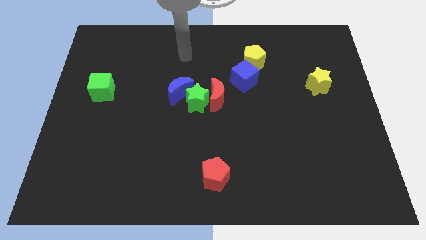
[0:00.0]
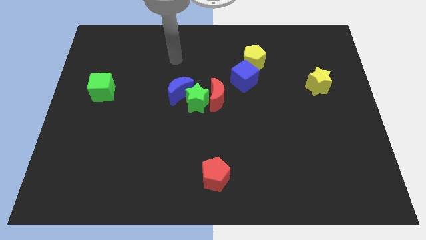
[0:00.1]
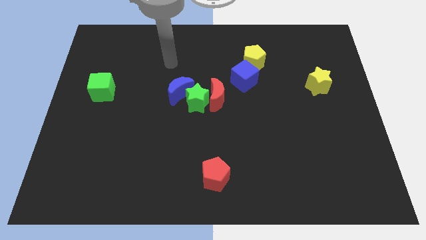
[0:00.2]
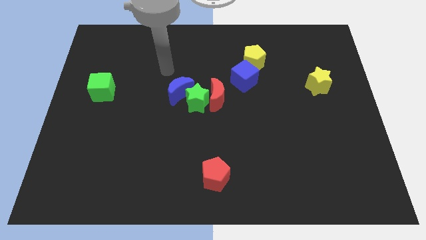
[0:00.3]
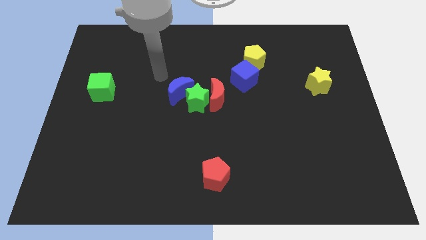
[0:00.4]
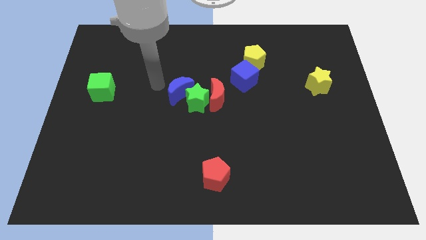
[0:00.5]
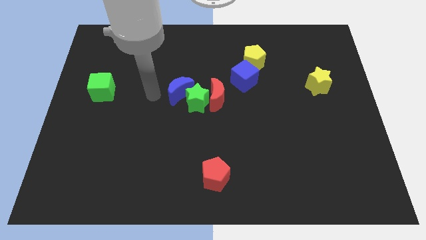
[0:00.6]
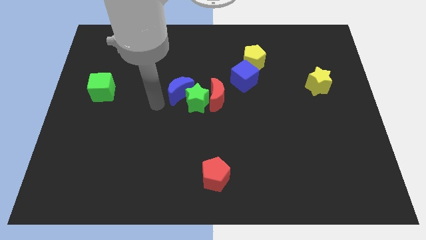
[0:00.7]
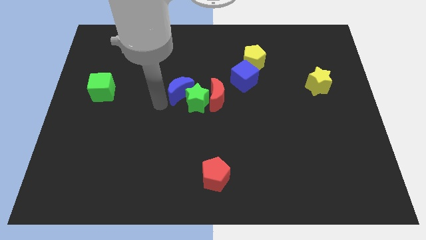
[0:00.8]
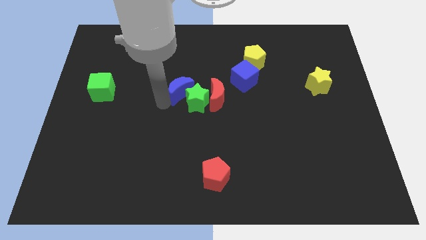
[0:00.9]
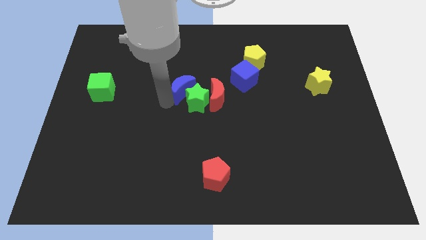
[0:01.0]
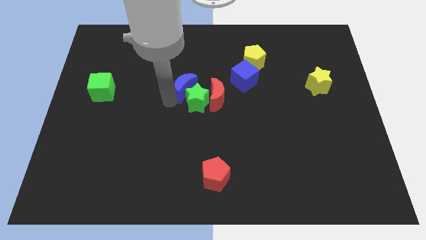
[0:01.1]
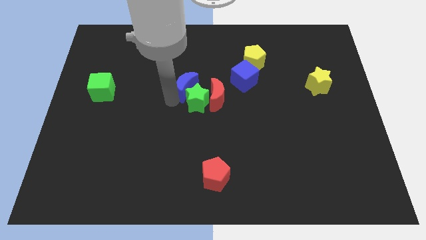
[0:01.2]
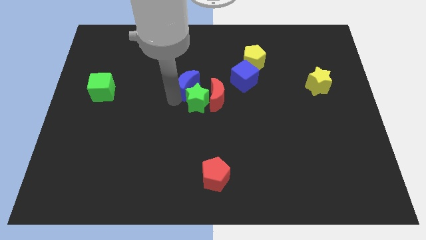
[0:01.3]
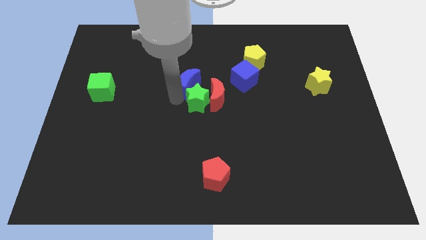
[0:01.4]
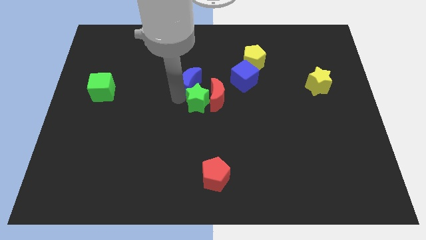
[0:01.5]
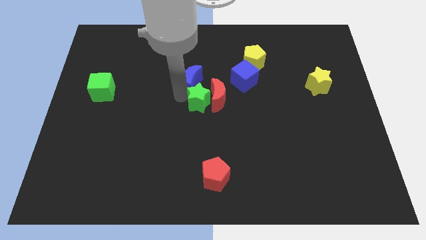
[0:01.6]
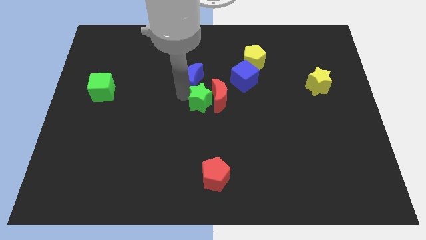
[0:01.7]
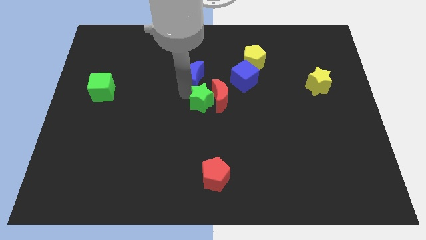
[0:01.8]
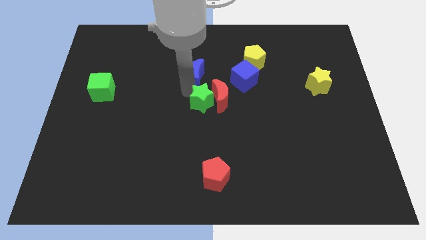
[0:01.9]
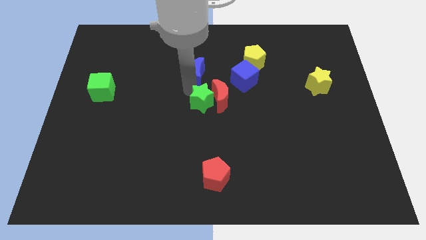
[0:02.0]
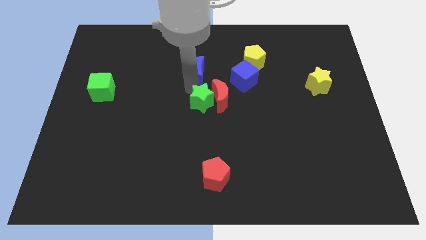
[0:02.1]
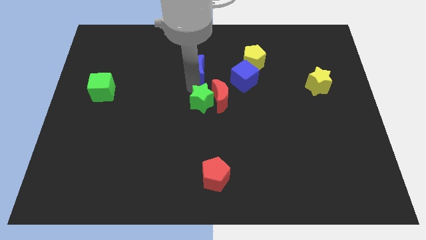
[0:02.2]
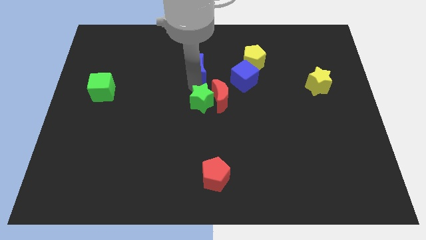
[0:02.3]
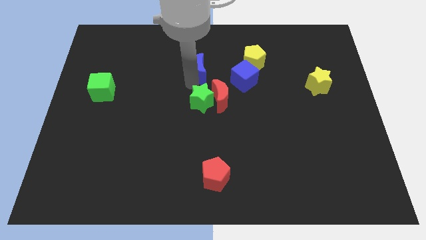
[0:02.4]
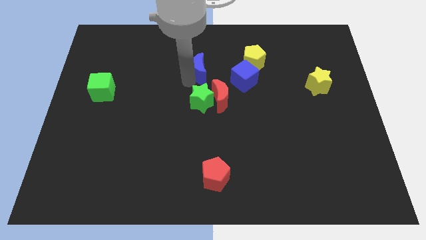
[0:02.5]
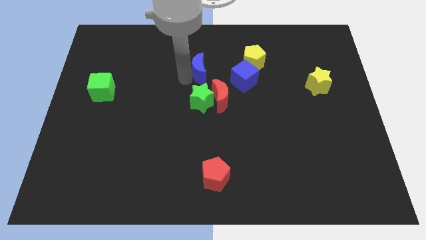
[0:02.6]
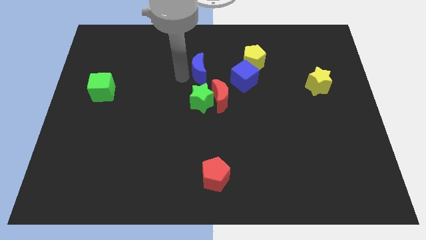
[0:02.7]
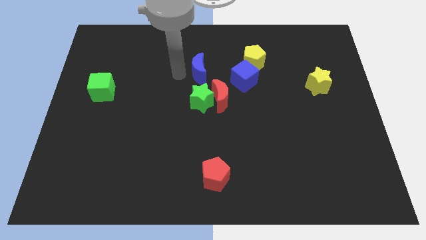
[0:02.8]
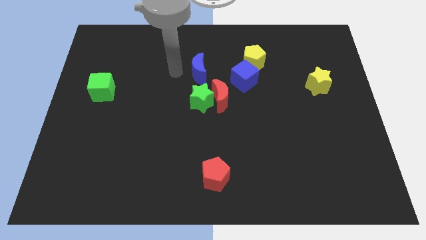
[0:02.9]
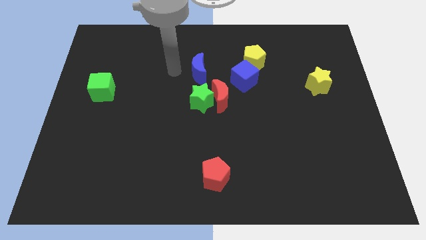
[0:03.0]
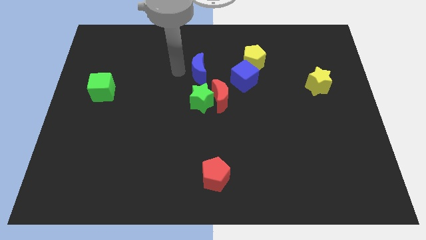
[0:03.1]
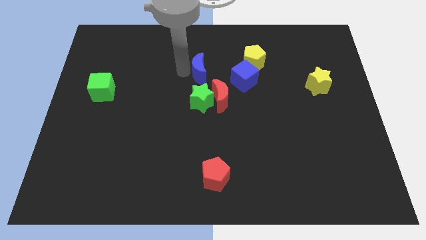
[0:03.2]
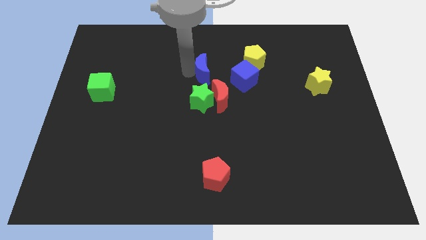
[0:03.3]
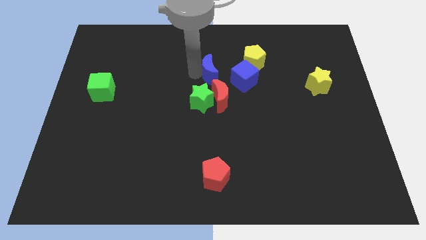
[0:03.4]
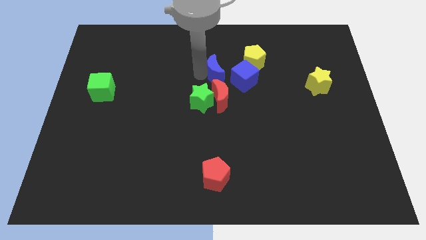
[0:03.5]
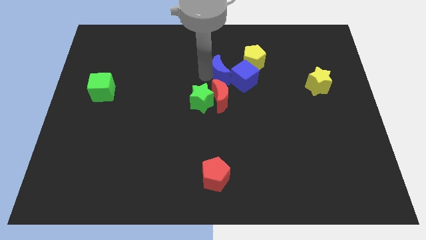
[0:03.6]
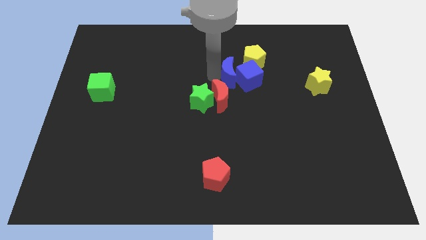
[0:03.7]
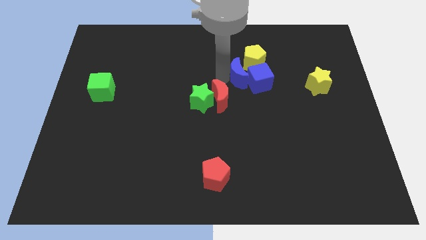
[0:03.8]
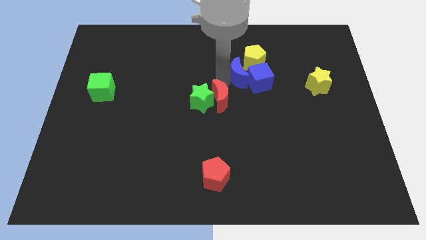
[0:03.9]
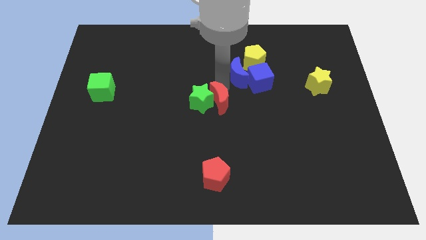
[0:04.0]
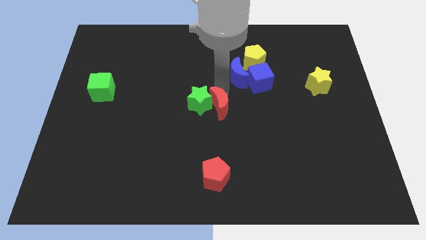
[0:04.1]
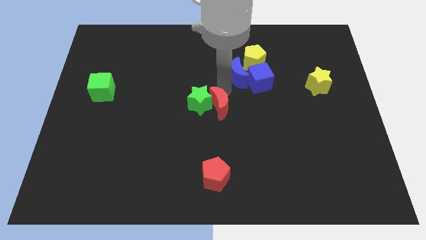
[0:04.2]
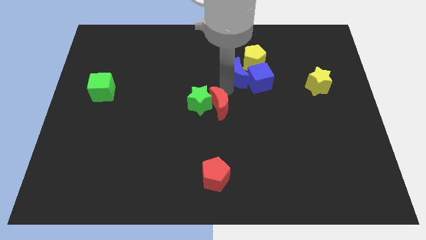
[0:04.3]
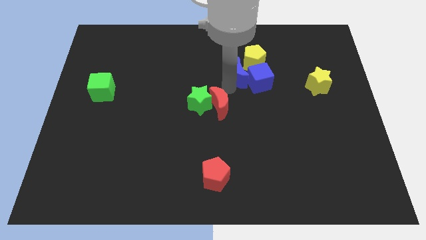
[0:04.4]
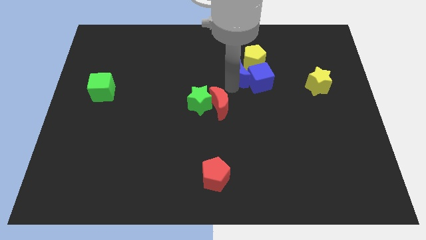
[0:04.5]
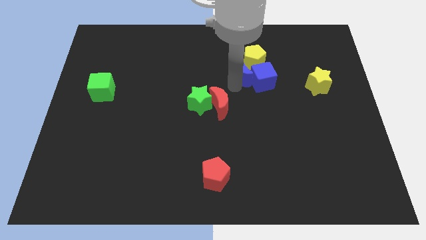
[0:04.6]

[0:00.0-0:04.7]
put the blue moon towards the yellow pentagon

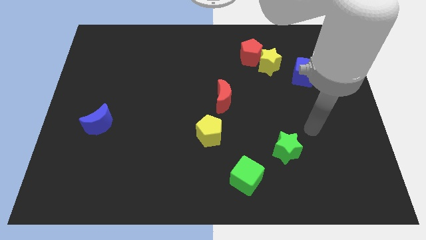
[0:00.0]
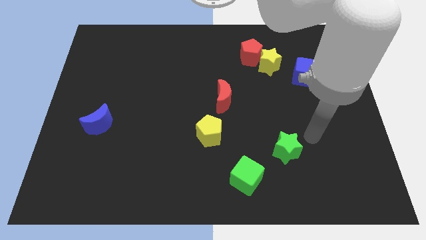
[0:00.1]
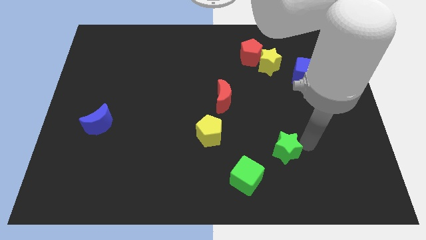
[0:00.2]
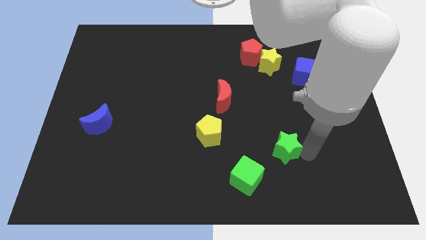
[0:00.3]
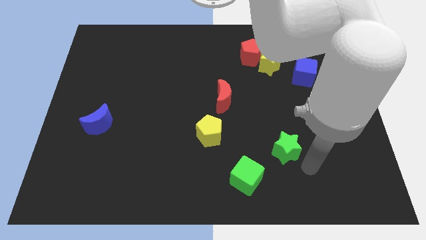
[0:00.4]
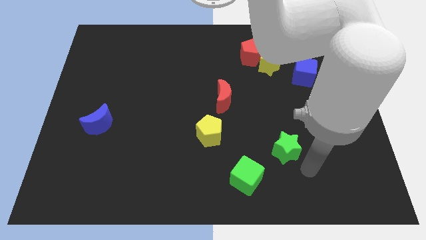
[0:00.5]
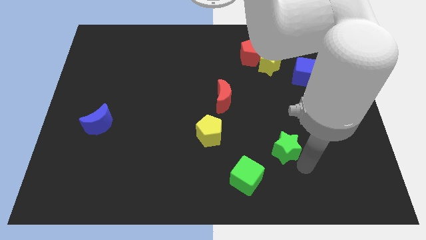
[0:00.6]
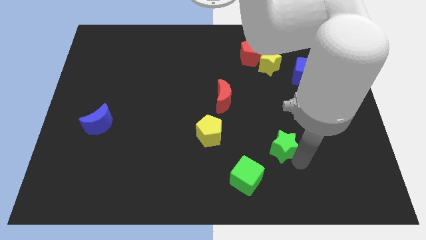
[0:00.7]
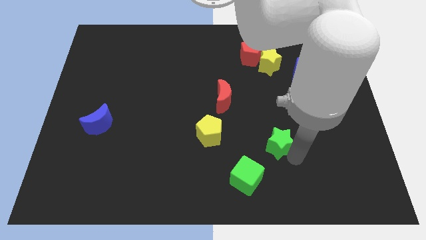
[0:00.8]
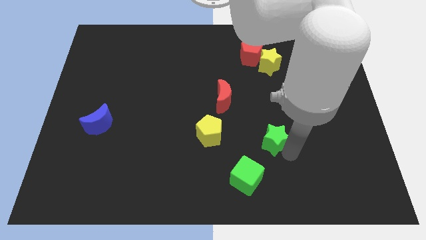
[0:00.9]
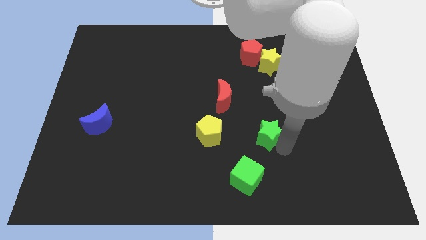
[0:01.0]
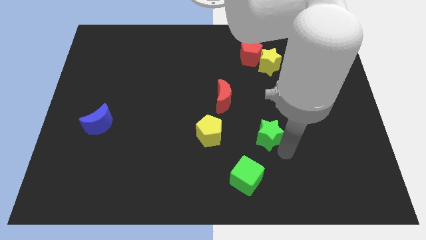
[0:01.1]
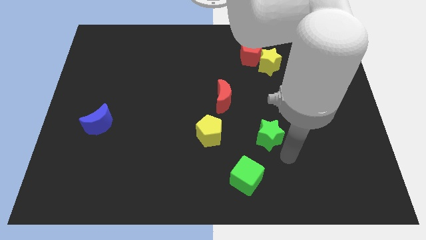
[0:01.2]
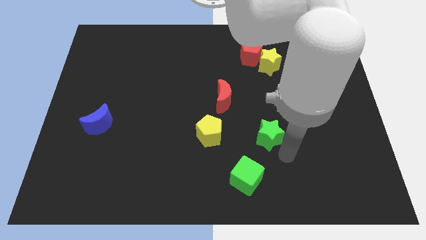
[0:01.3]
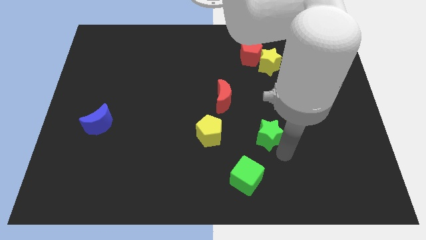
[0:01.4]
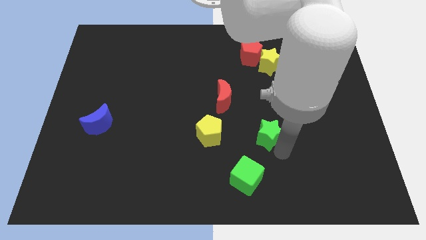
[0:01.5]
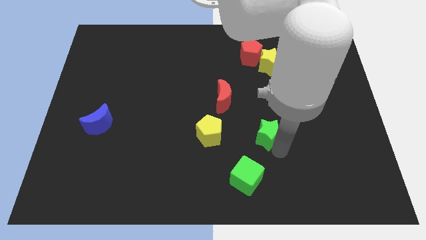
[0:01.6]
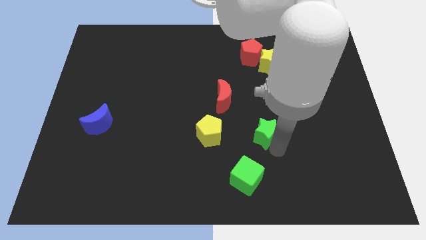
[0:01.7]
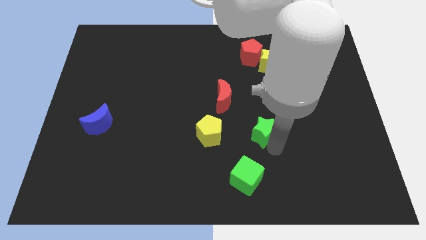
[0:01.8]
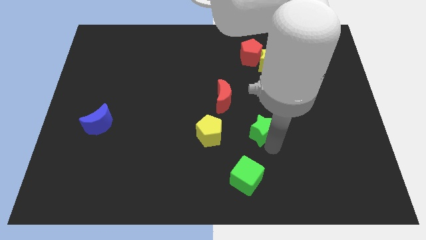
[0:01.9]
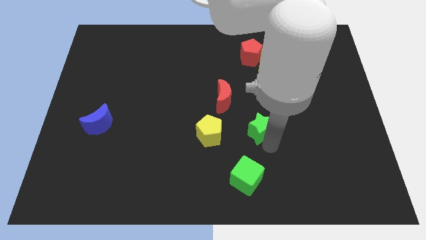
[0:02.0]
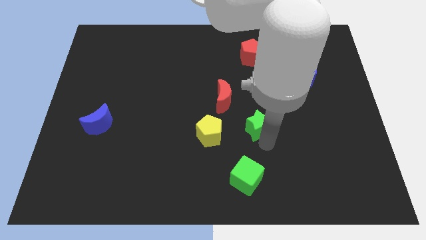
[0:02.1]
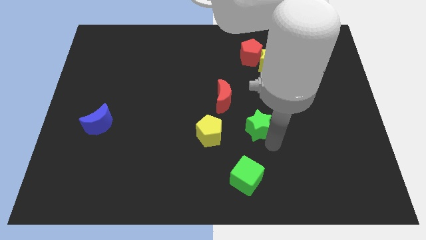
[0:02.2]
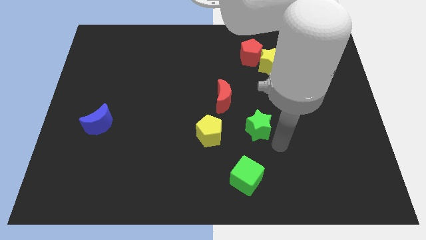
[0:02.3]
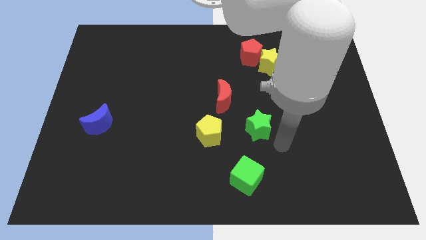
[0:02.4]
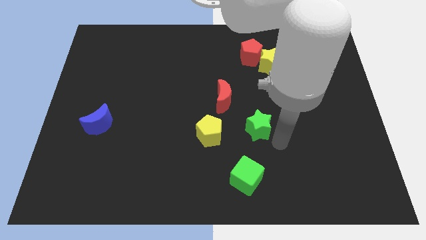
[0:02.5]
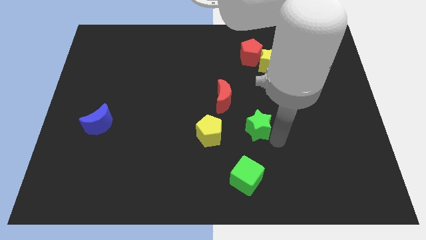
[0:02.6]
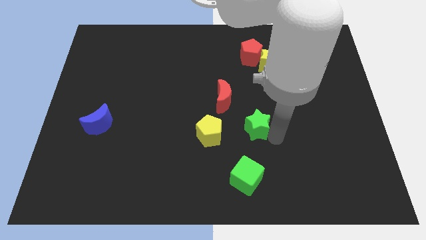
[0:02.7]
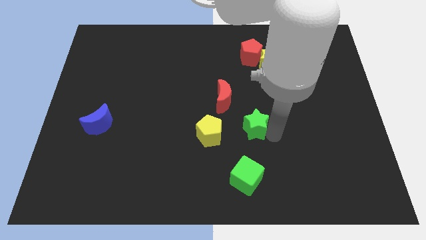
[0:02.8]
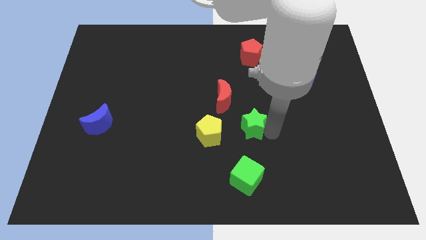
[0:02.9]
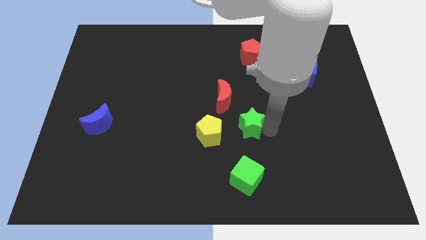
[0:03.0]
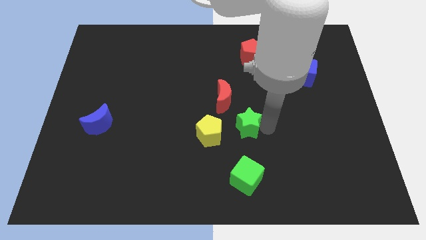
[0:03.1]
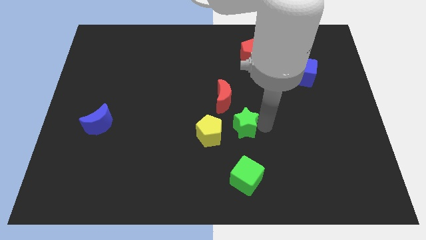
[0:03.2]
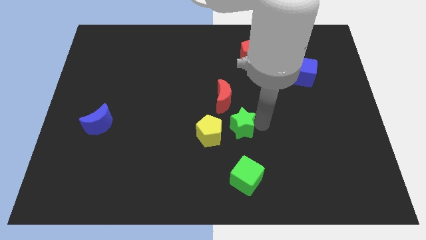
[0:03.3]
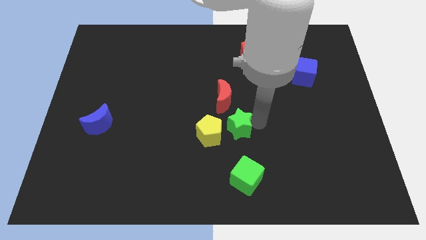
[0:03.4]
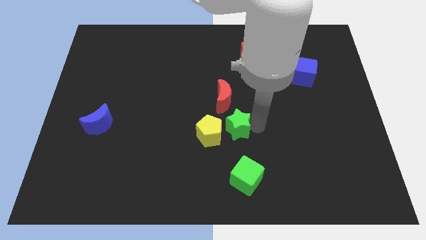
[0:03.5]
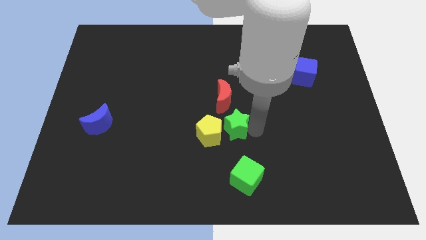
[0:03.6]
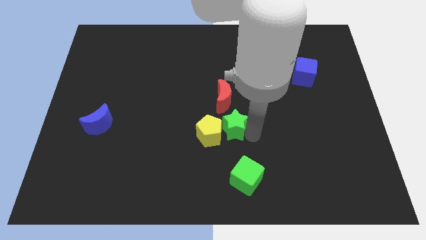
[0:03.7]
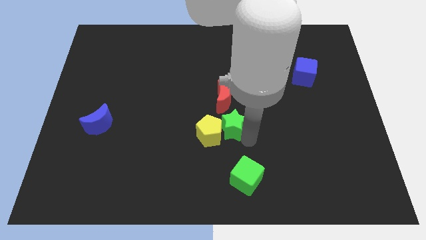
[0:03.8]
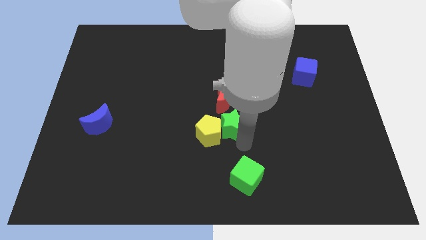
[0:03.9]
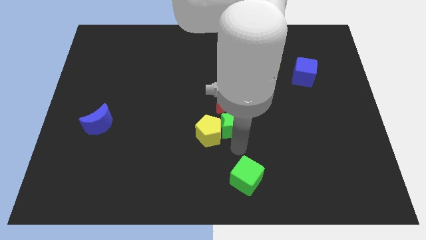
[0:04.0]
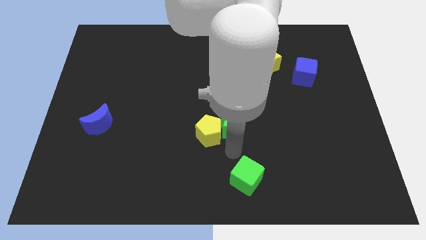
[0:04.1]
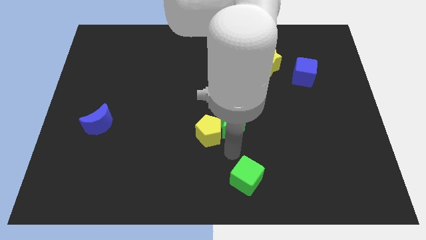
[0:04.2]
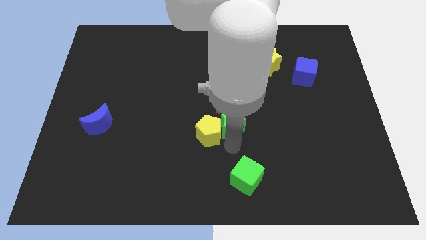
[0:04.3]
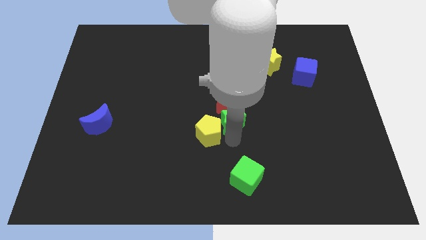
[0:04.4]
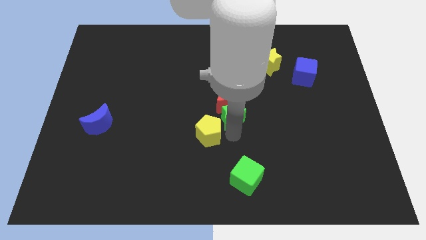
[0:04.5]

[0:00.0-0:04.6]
put the green star close to the red moon
